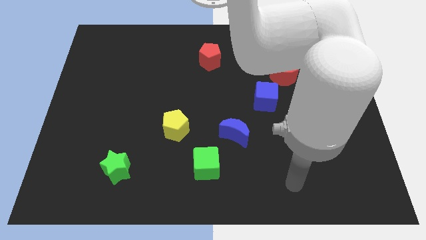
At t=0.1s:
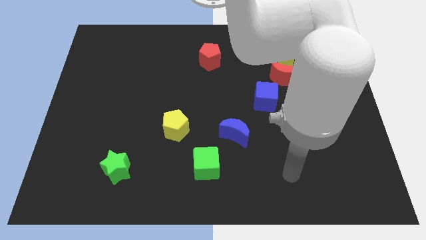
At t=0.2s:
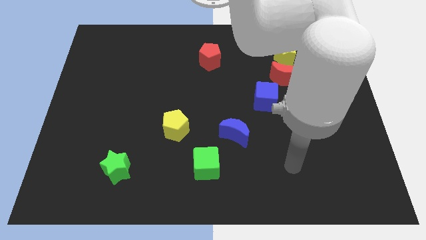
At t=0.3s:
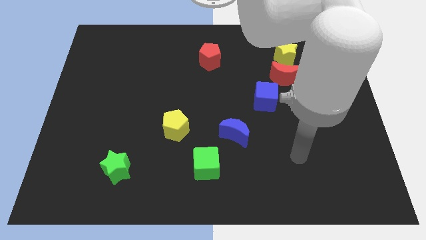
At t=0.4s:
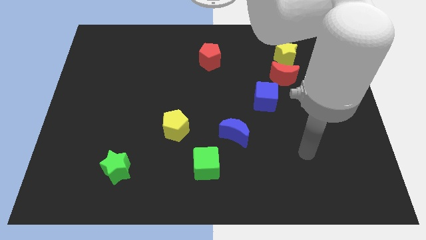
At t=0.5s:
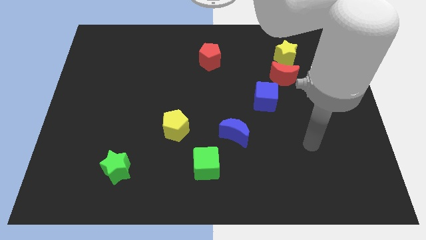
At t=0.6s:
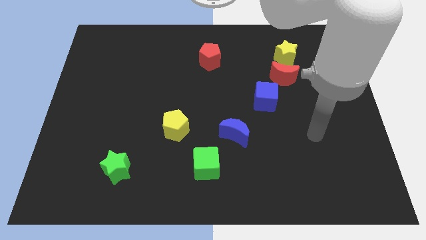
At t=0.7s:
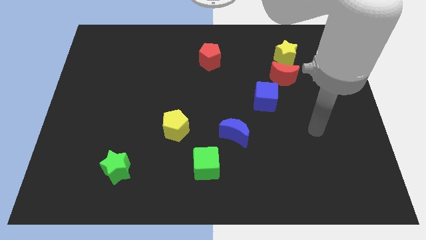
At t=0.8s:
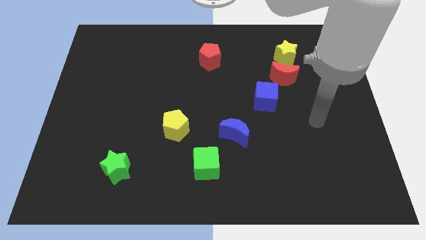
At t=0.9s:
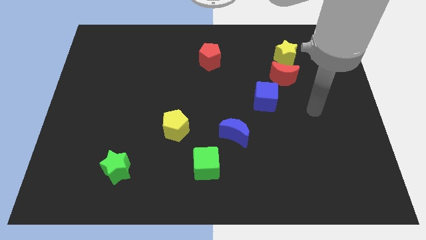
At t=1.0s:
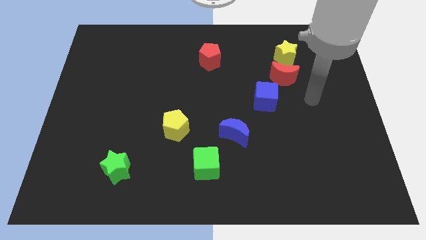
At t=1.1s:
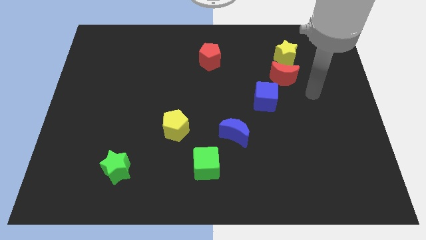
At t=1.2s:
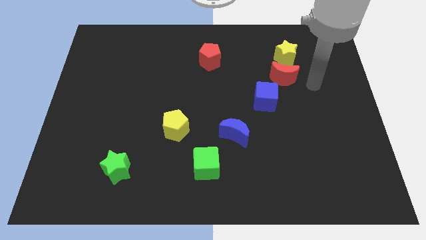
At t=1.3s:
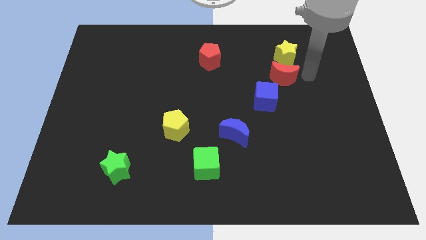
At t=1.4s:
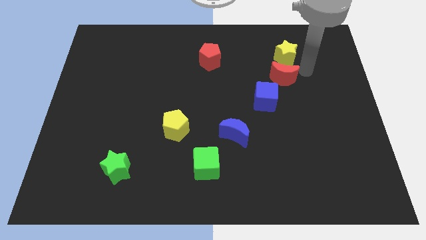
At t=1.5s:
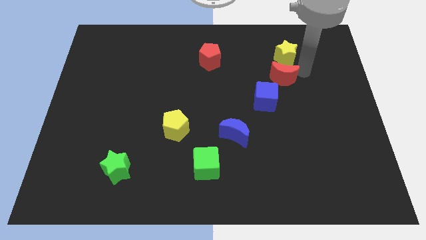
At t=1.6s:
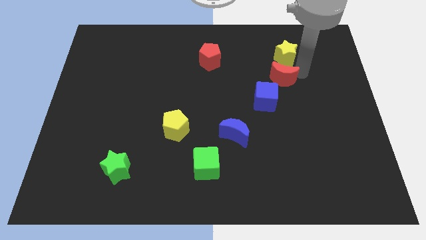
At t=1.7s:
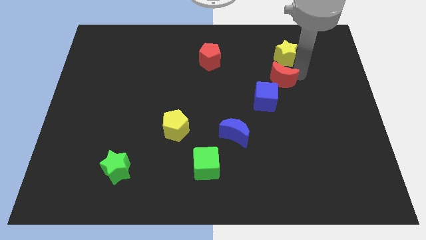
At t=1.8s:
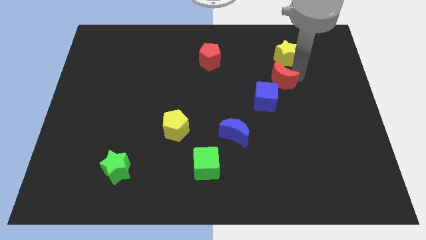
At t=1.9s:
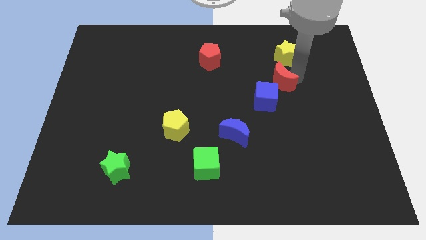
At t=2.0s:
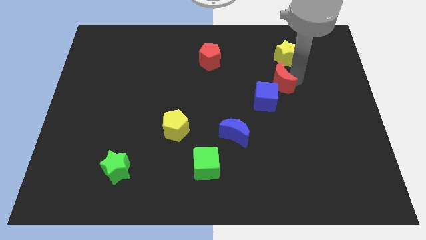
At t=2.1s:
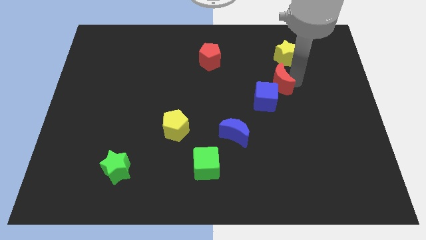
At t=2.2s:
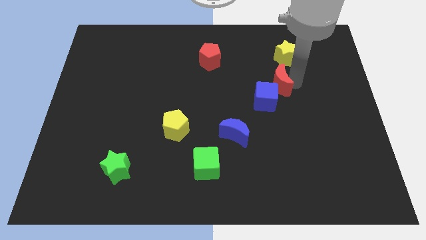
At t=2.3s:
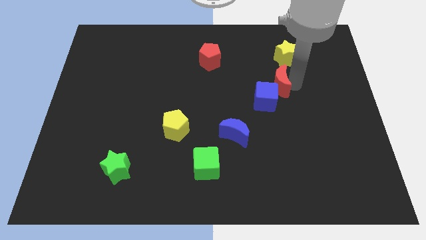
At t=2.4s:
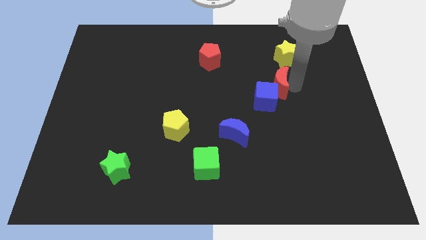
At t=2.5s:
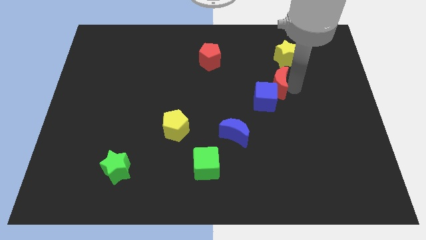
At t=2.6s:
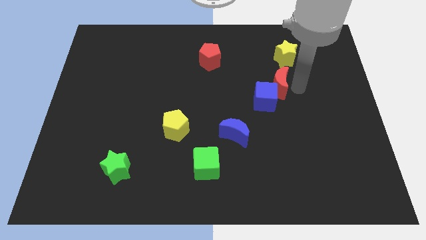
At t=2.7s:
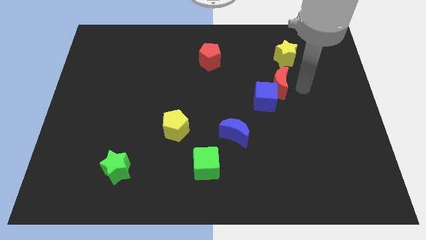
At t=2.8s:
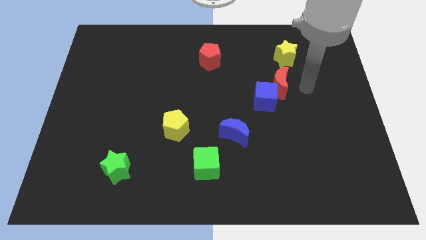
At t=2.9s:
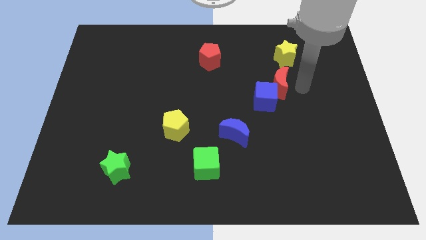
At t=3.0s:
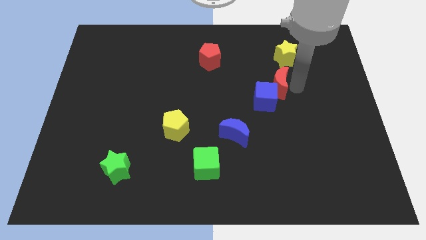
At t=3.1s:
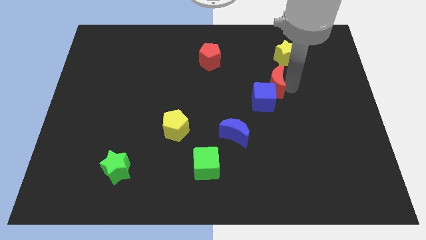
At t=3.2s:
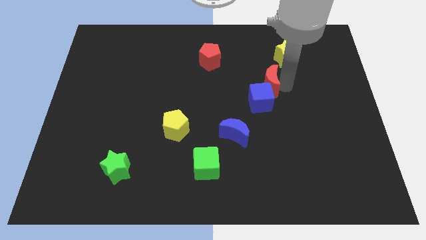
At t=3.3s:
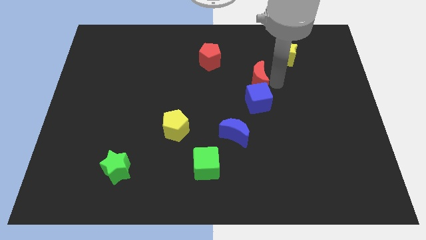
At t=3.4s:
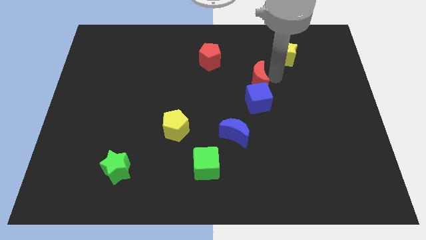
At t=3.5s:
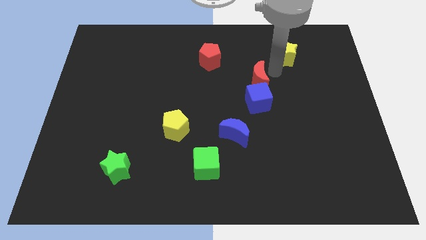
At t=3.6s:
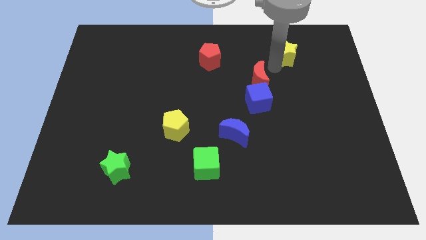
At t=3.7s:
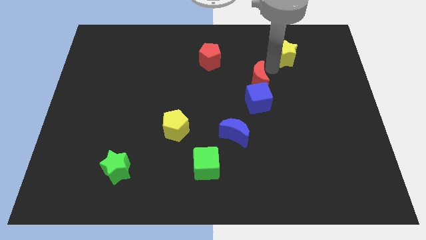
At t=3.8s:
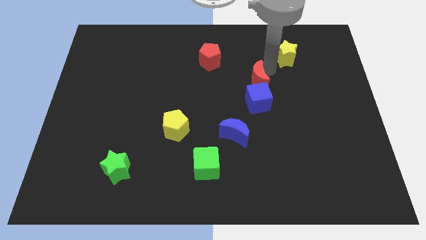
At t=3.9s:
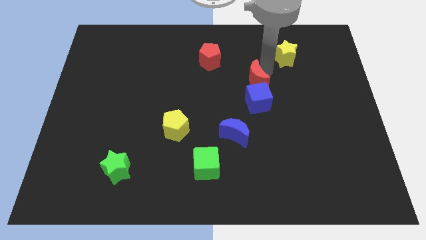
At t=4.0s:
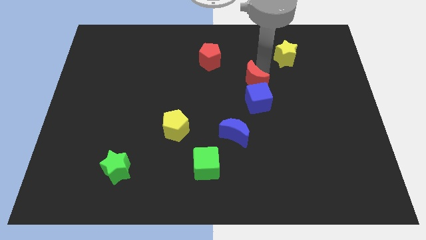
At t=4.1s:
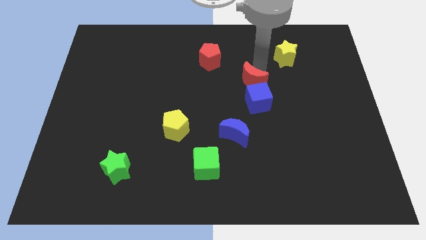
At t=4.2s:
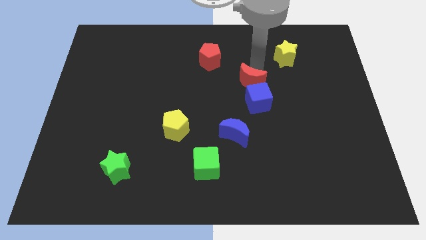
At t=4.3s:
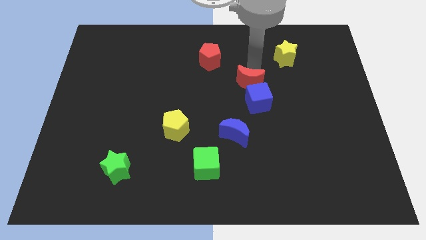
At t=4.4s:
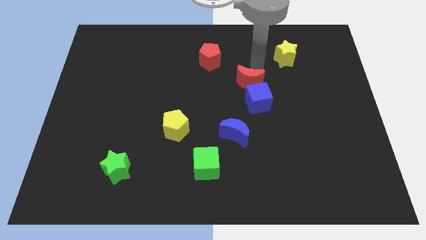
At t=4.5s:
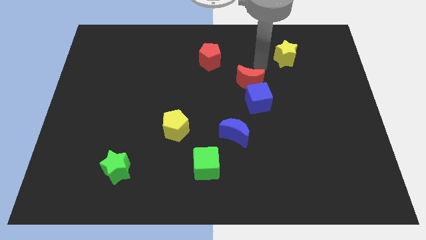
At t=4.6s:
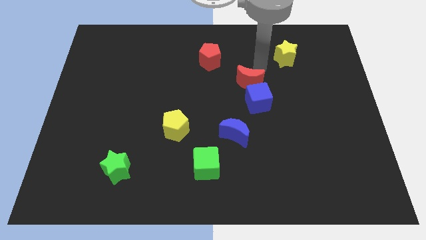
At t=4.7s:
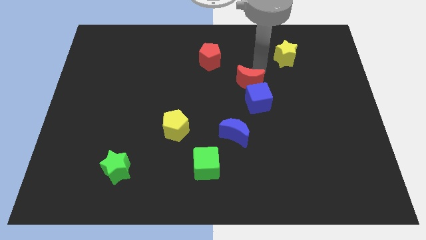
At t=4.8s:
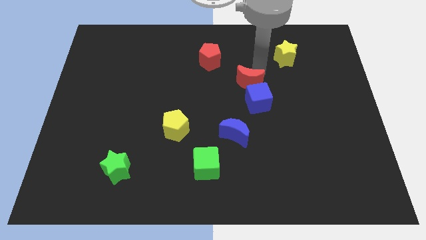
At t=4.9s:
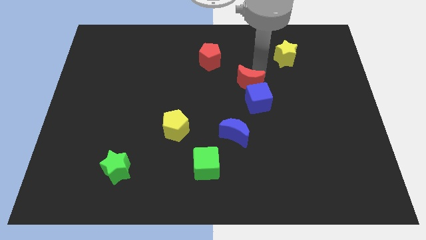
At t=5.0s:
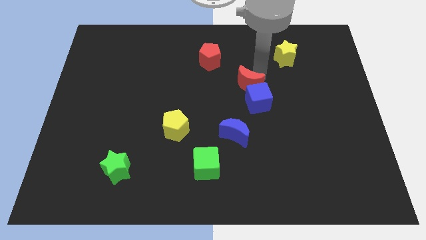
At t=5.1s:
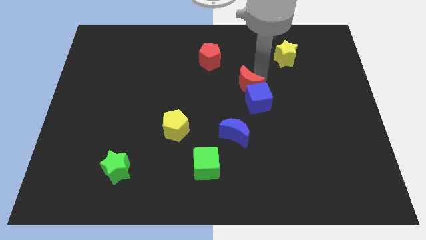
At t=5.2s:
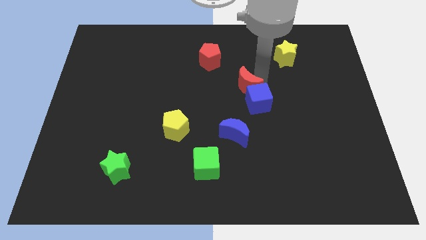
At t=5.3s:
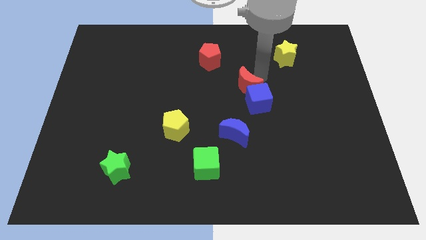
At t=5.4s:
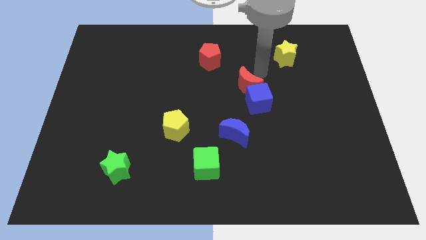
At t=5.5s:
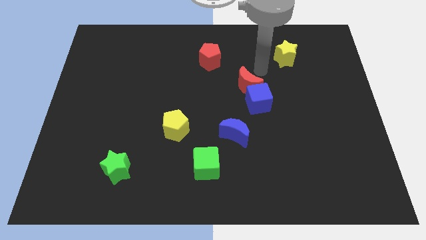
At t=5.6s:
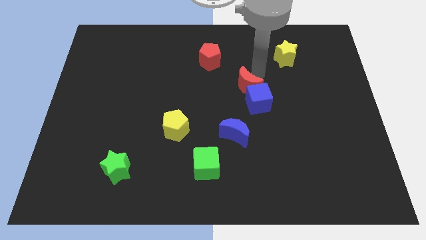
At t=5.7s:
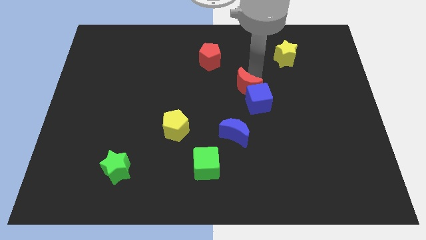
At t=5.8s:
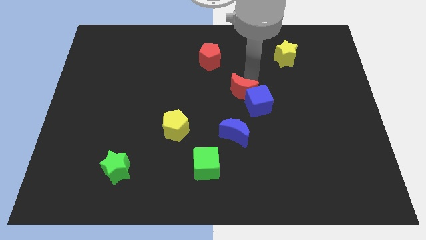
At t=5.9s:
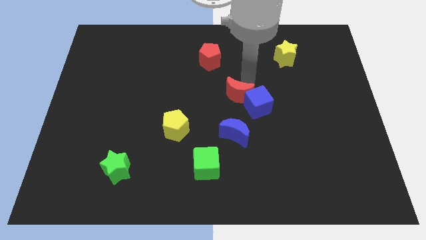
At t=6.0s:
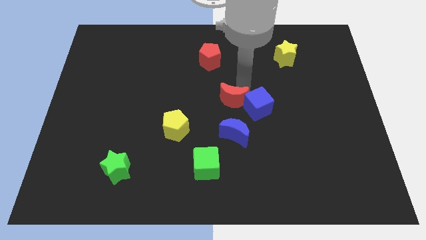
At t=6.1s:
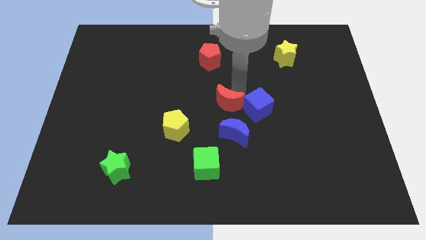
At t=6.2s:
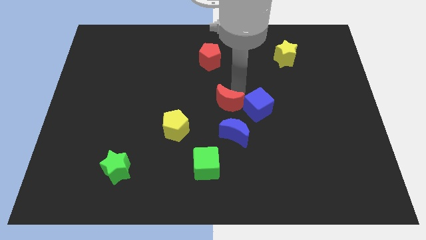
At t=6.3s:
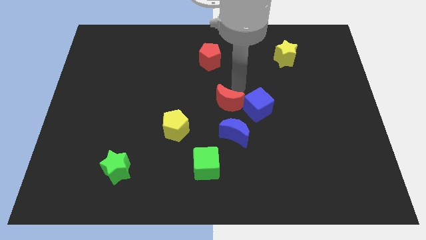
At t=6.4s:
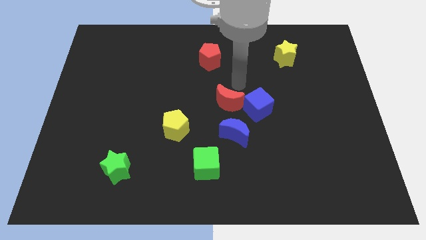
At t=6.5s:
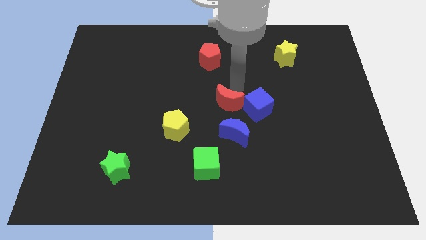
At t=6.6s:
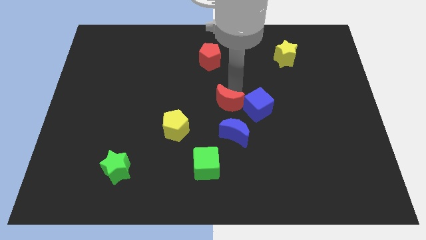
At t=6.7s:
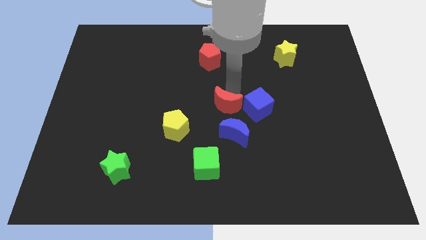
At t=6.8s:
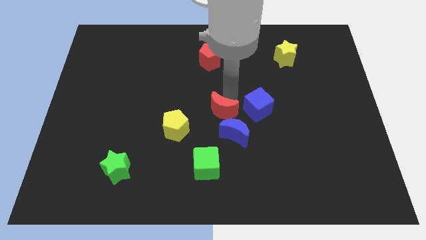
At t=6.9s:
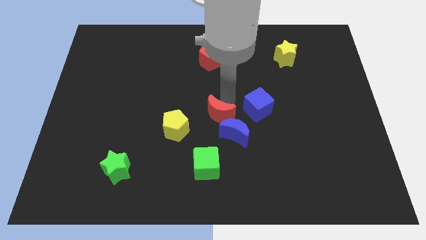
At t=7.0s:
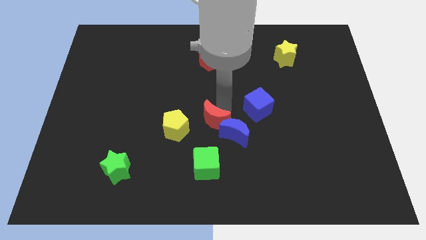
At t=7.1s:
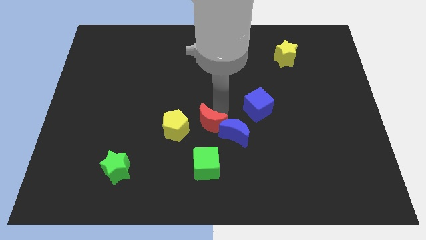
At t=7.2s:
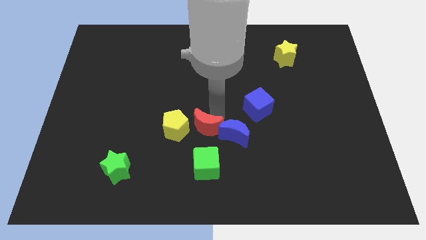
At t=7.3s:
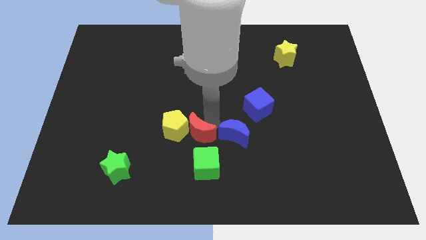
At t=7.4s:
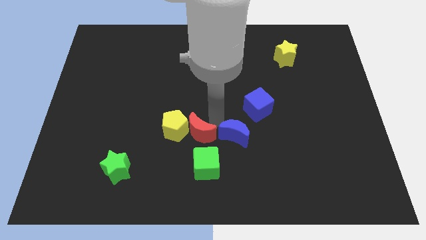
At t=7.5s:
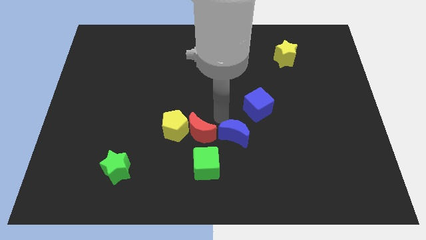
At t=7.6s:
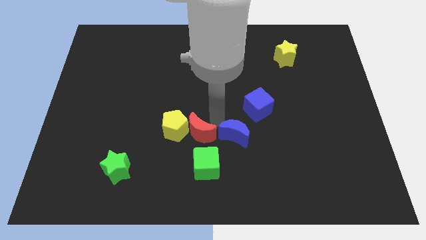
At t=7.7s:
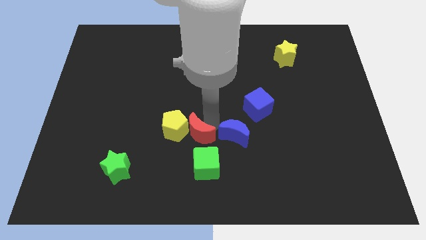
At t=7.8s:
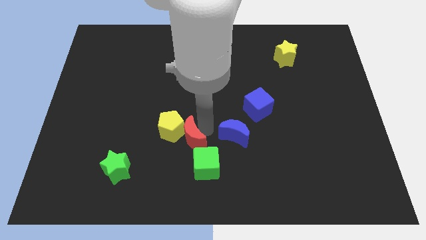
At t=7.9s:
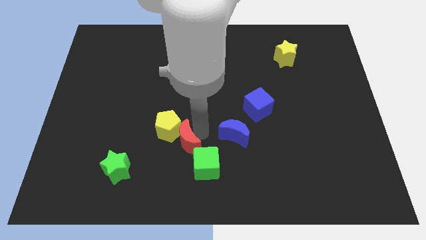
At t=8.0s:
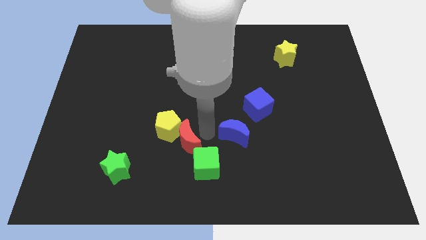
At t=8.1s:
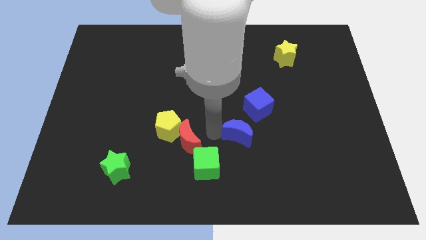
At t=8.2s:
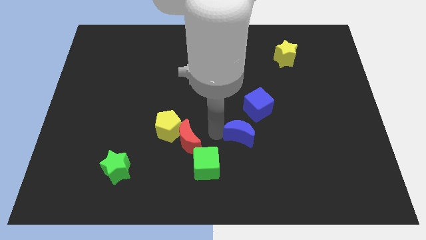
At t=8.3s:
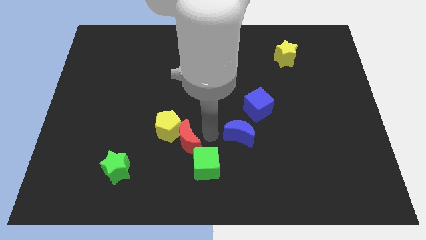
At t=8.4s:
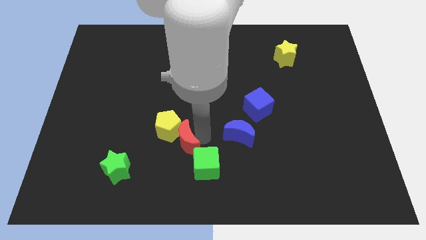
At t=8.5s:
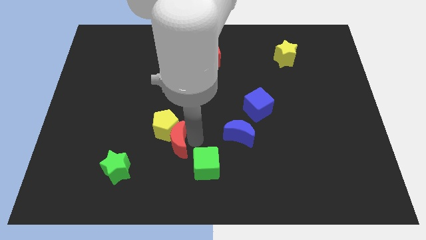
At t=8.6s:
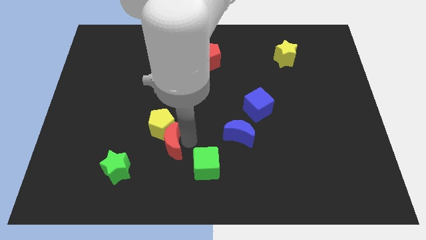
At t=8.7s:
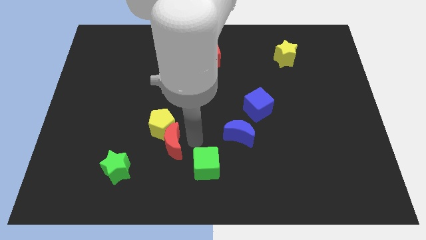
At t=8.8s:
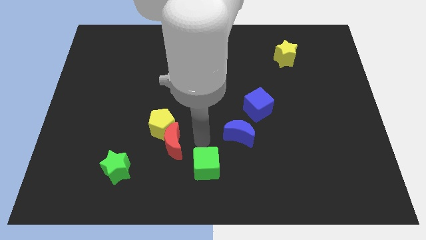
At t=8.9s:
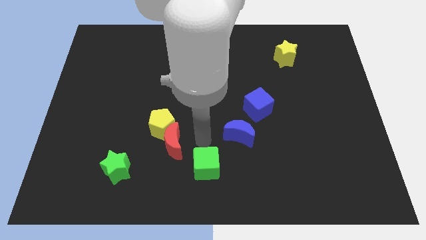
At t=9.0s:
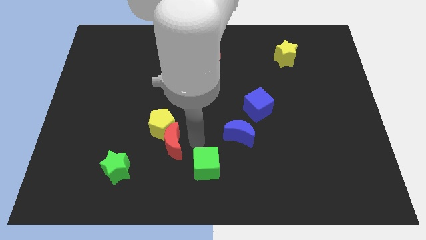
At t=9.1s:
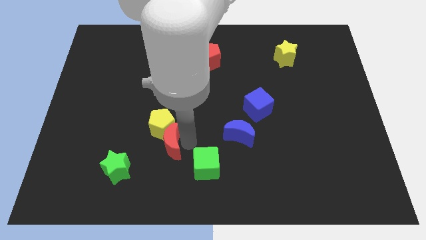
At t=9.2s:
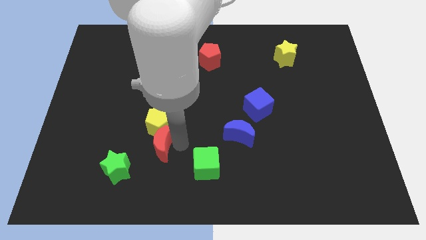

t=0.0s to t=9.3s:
slide the red moon diagonally up and to the right of the green star
